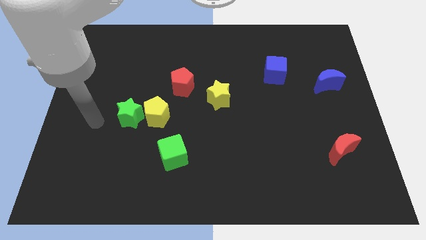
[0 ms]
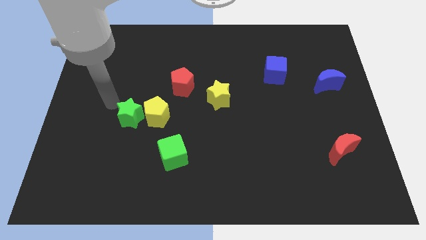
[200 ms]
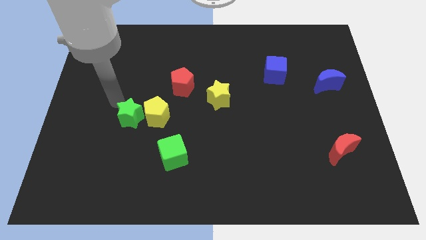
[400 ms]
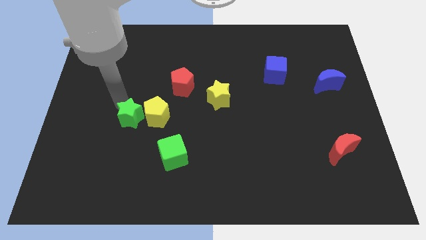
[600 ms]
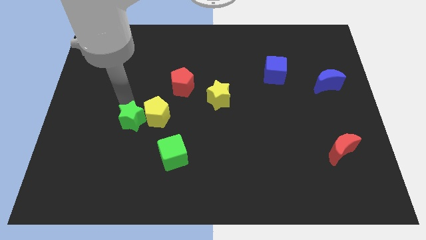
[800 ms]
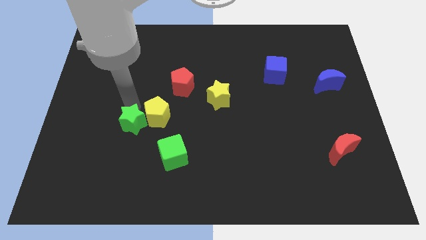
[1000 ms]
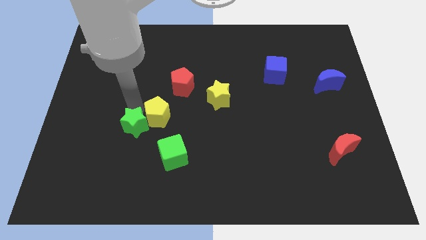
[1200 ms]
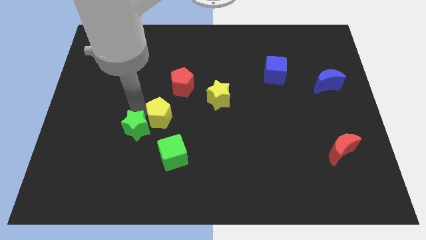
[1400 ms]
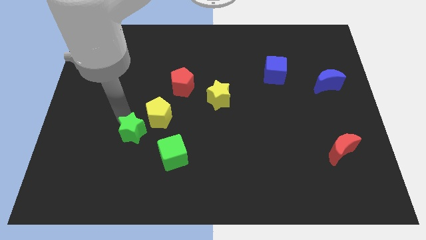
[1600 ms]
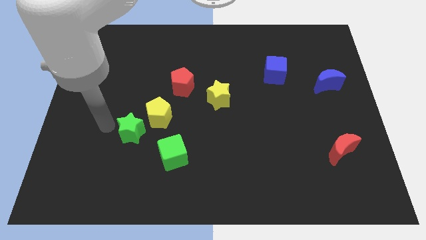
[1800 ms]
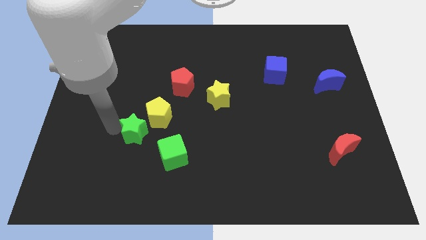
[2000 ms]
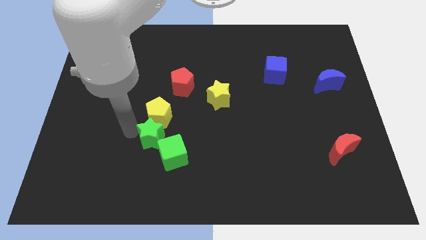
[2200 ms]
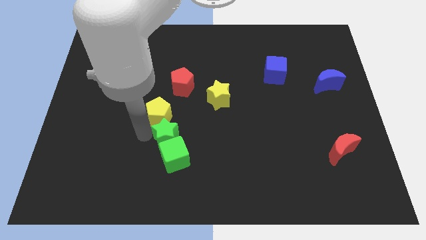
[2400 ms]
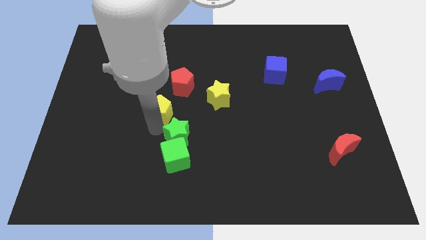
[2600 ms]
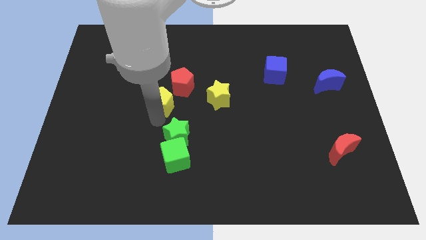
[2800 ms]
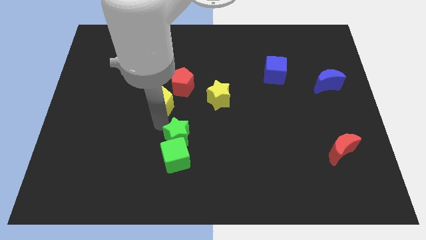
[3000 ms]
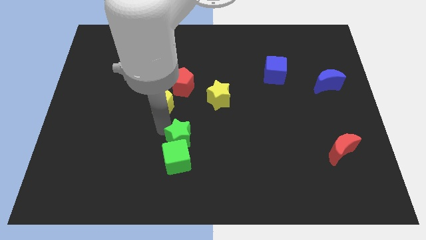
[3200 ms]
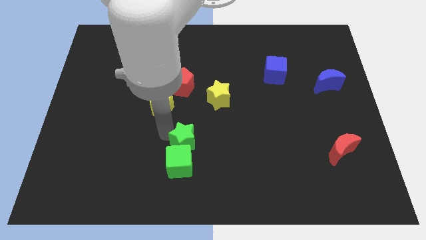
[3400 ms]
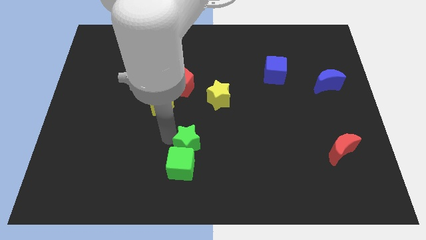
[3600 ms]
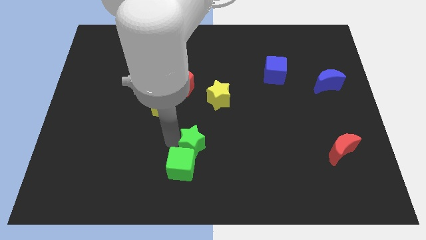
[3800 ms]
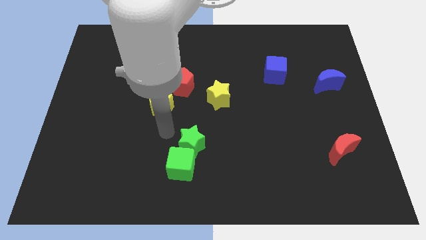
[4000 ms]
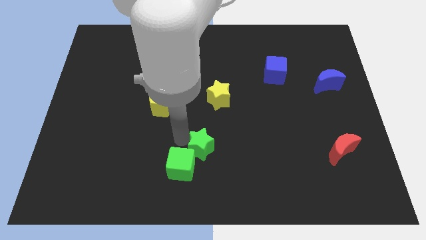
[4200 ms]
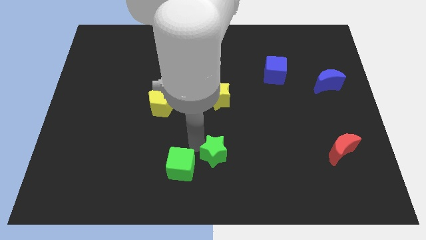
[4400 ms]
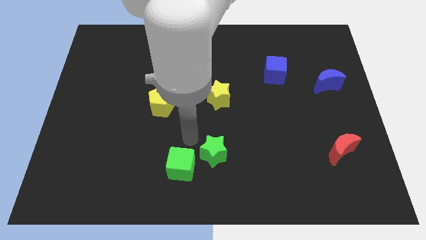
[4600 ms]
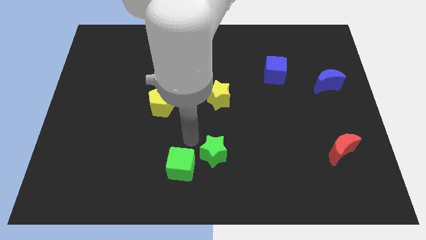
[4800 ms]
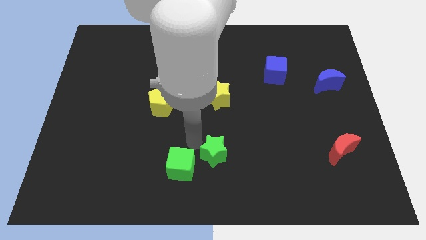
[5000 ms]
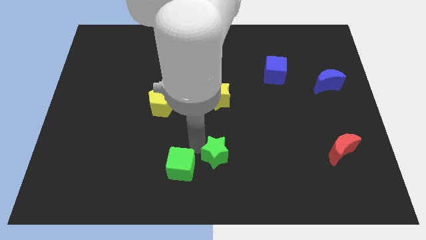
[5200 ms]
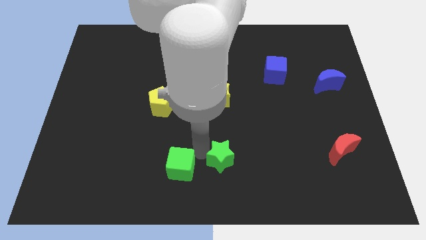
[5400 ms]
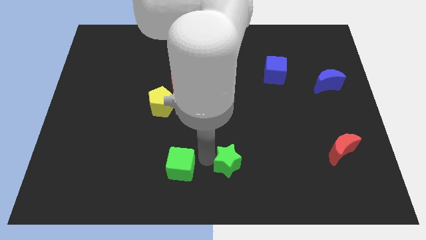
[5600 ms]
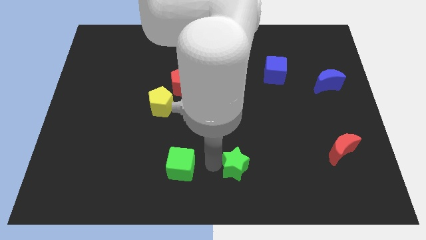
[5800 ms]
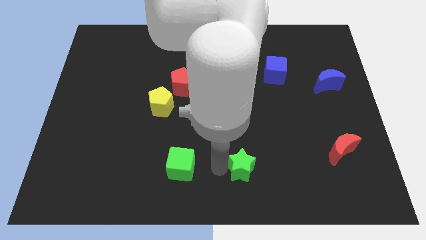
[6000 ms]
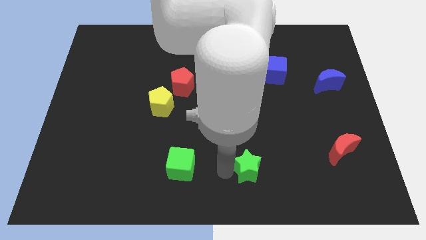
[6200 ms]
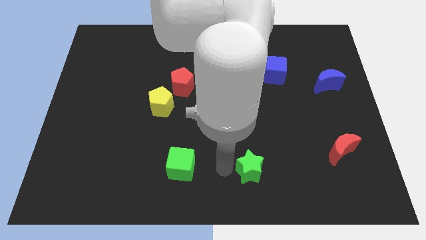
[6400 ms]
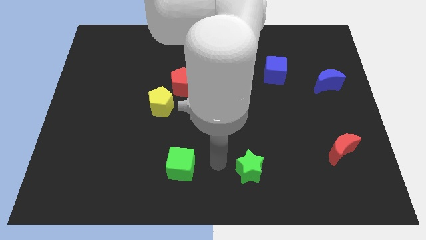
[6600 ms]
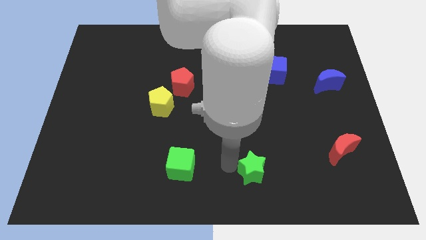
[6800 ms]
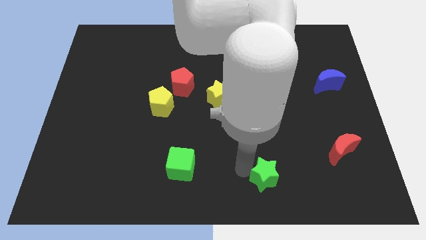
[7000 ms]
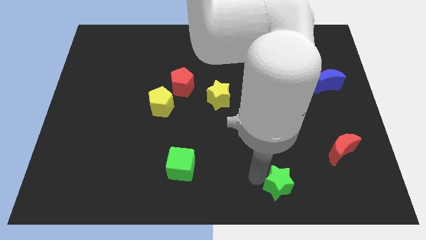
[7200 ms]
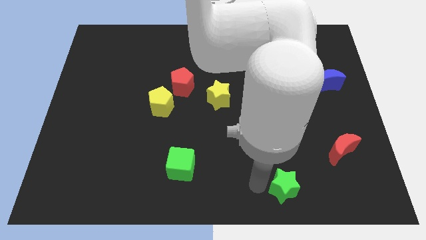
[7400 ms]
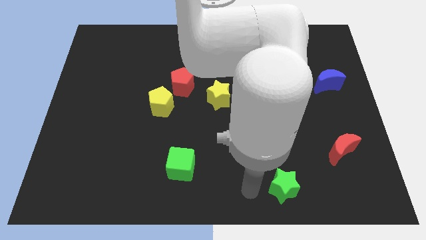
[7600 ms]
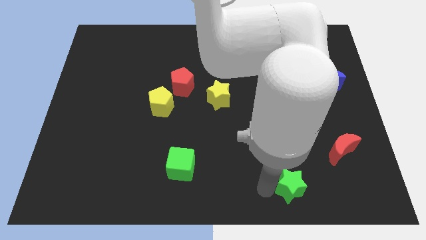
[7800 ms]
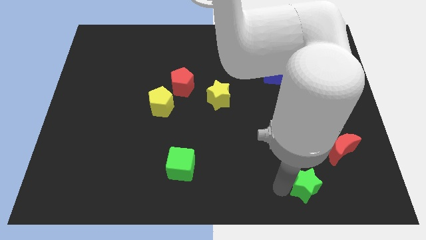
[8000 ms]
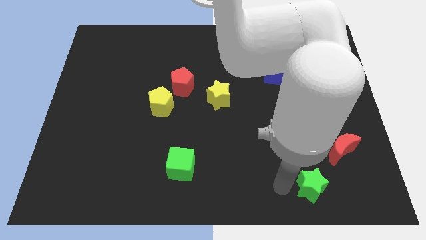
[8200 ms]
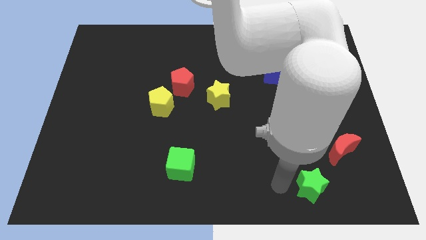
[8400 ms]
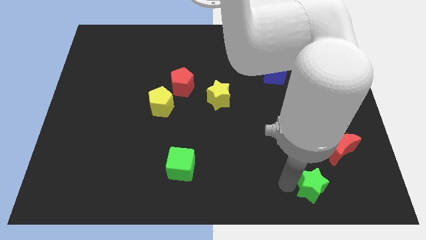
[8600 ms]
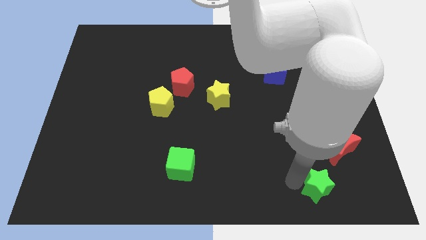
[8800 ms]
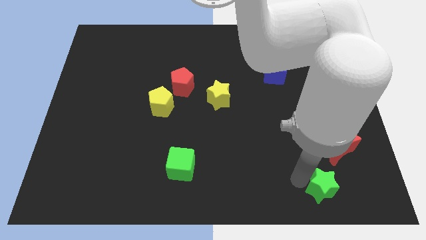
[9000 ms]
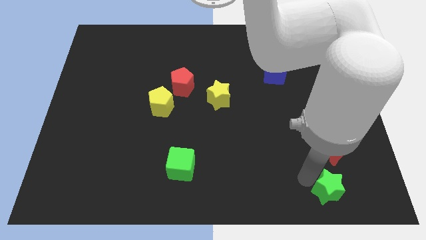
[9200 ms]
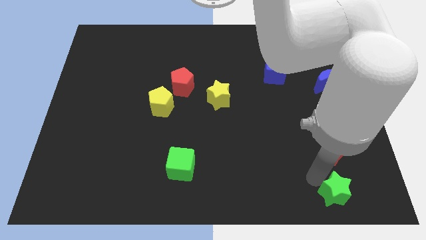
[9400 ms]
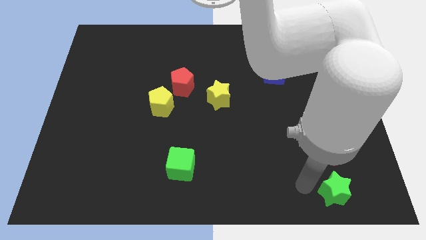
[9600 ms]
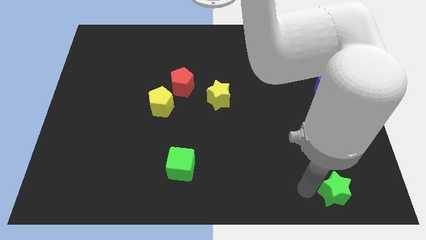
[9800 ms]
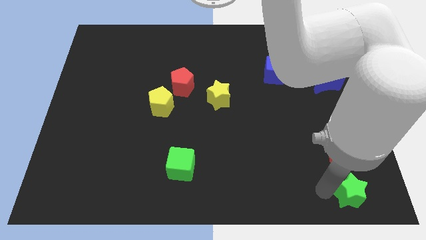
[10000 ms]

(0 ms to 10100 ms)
move the green star to the bottom right

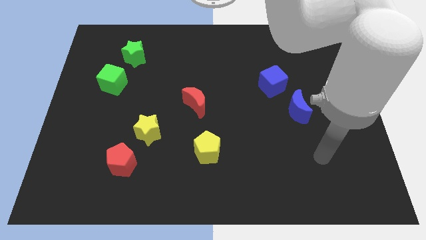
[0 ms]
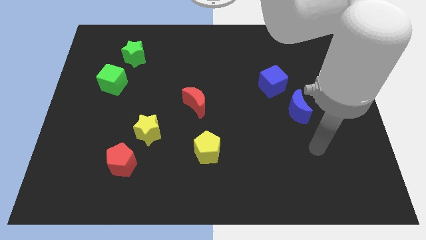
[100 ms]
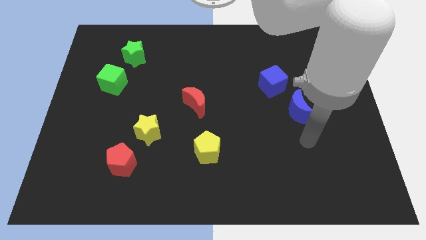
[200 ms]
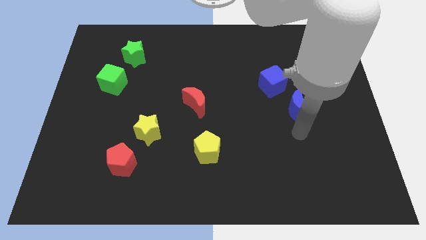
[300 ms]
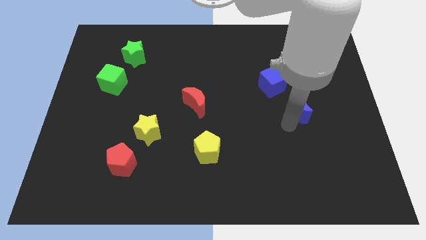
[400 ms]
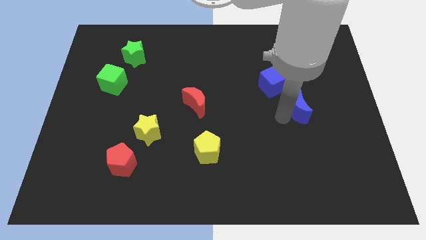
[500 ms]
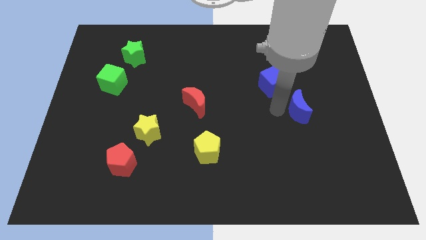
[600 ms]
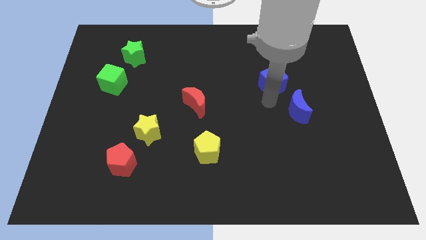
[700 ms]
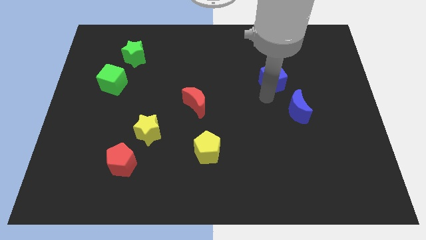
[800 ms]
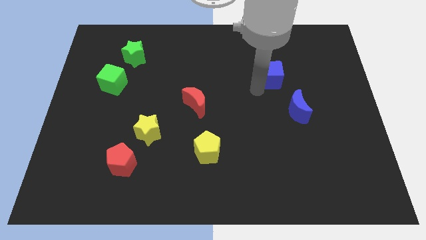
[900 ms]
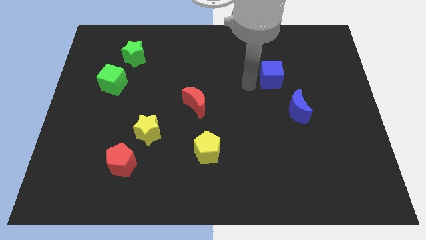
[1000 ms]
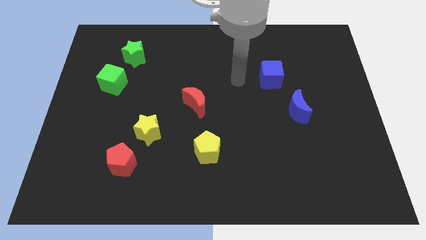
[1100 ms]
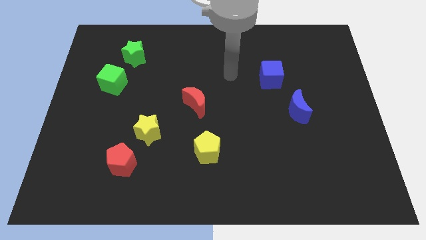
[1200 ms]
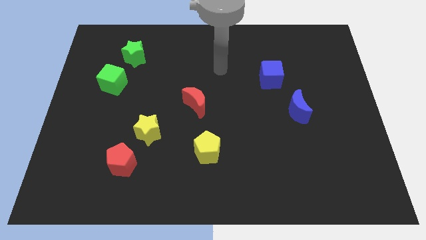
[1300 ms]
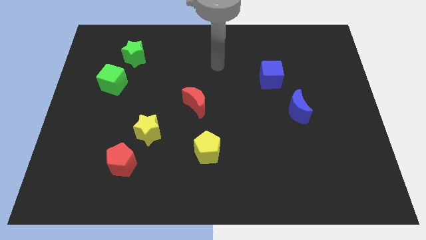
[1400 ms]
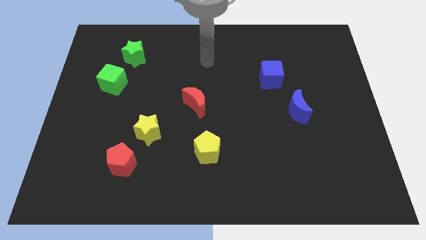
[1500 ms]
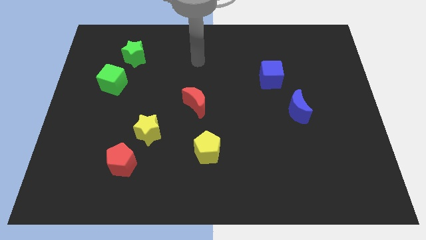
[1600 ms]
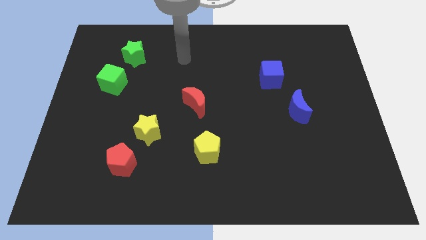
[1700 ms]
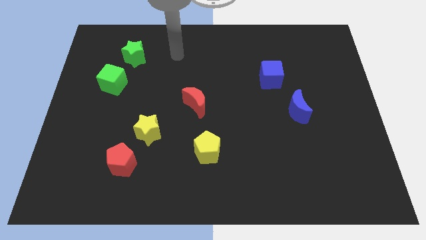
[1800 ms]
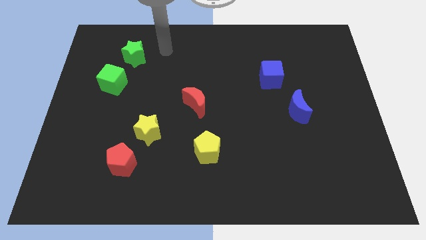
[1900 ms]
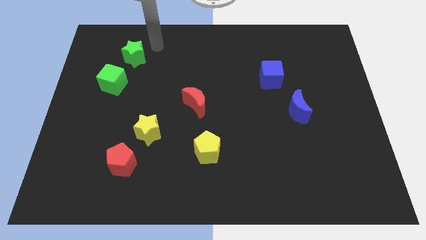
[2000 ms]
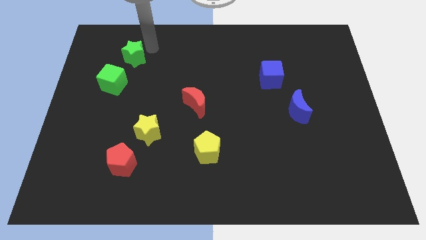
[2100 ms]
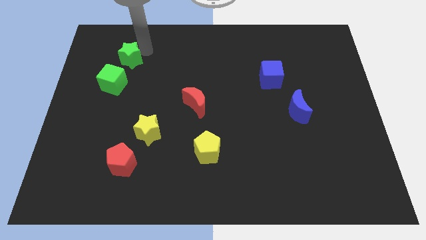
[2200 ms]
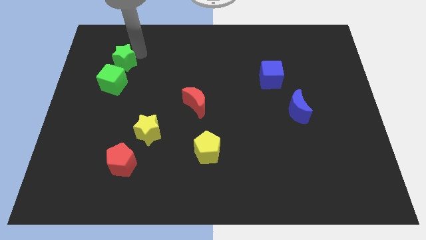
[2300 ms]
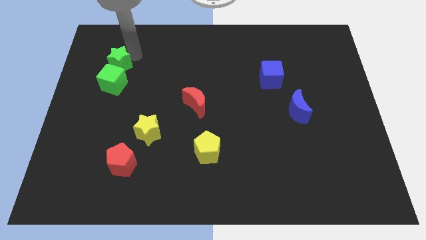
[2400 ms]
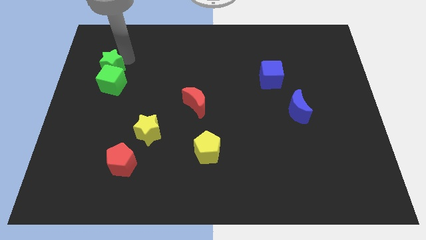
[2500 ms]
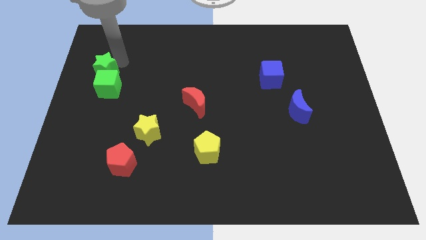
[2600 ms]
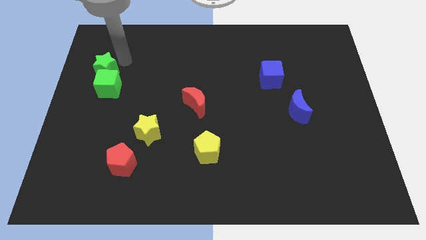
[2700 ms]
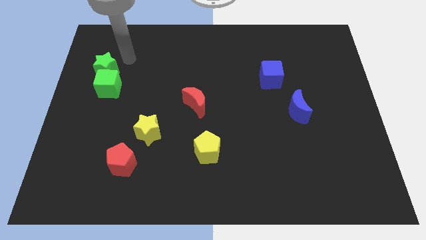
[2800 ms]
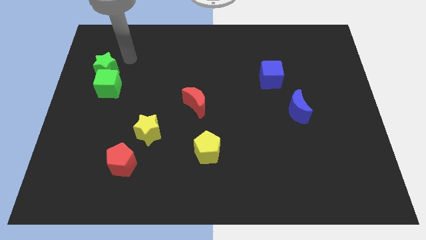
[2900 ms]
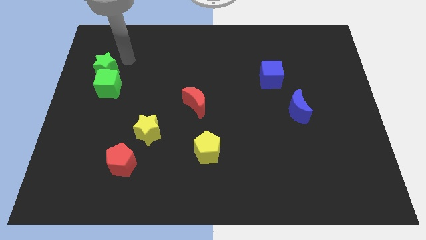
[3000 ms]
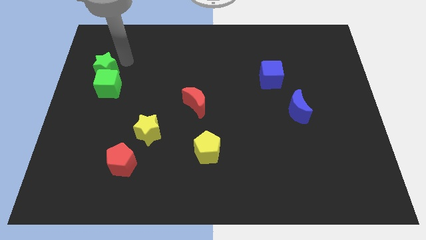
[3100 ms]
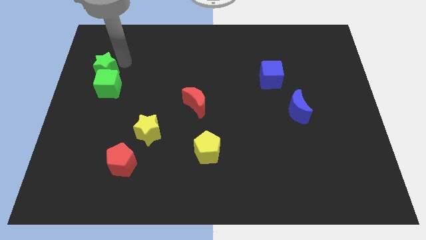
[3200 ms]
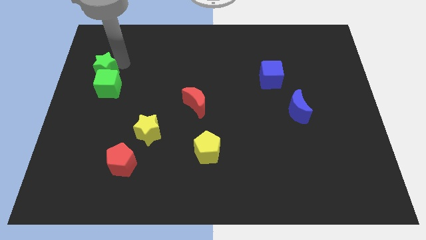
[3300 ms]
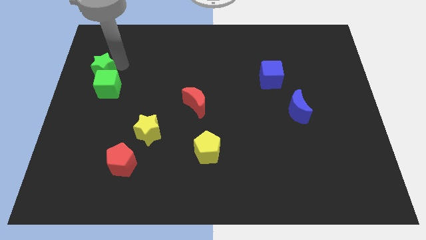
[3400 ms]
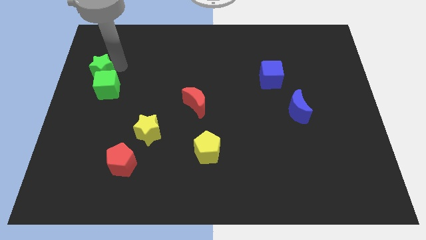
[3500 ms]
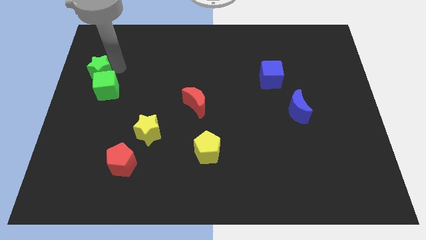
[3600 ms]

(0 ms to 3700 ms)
move the green star to the center left
